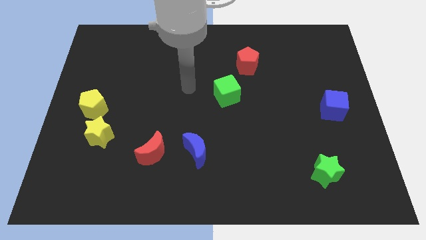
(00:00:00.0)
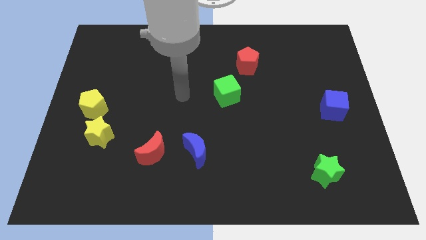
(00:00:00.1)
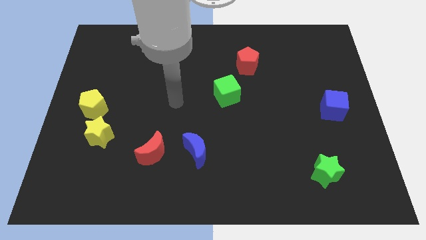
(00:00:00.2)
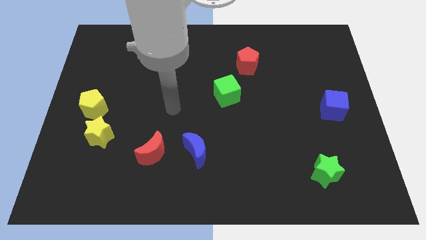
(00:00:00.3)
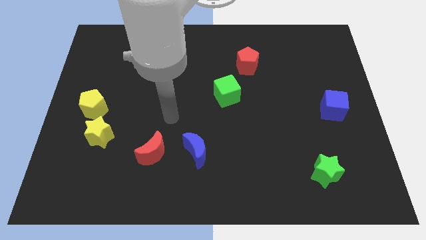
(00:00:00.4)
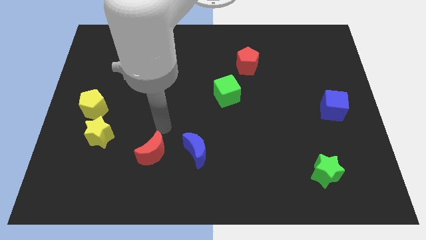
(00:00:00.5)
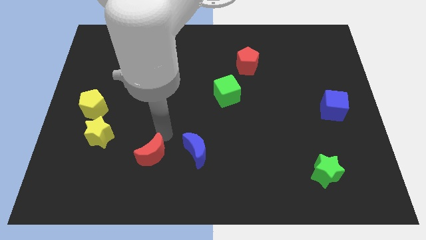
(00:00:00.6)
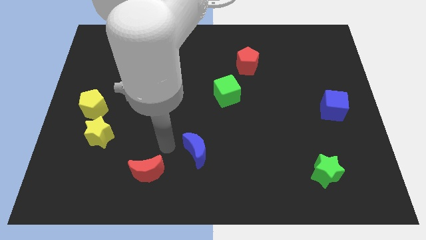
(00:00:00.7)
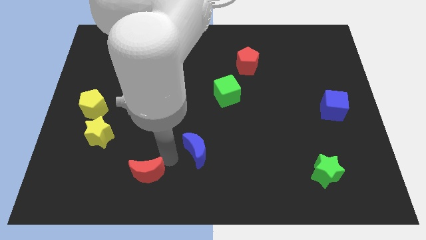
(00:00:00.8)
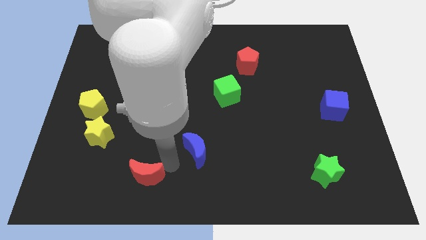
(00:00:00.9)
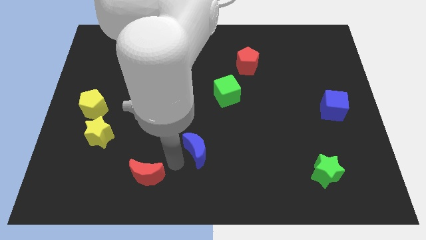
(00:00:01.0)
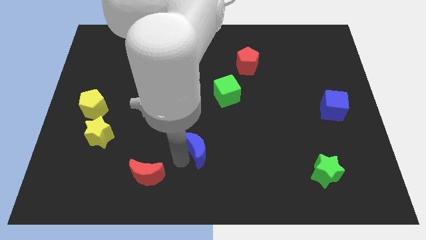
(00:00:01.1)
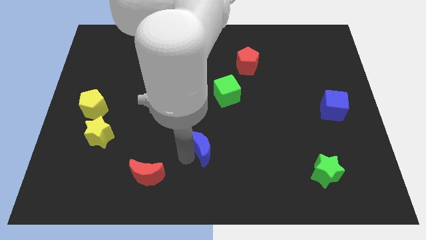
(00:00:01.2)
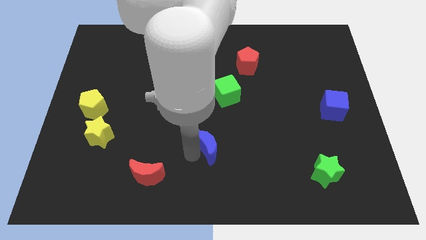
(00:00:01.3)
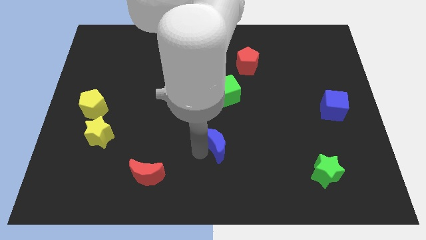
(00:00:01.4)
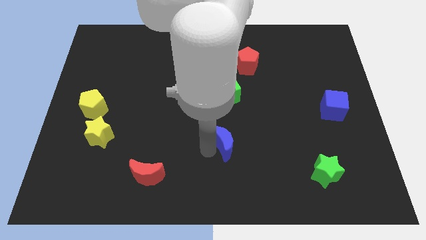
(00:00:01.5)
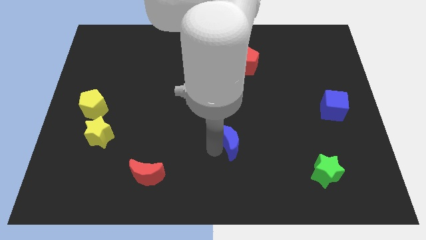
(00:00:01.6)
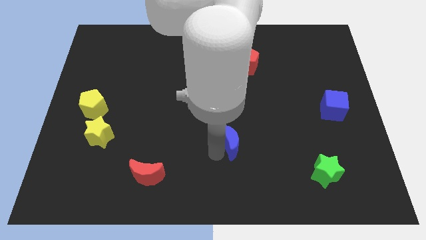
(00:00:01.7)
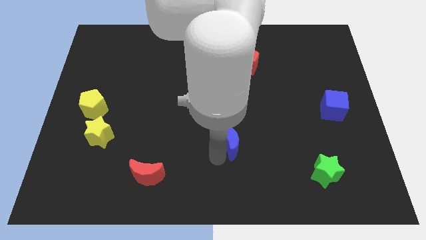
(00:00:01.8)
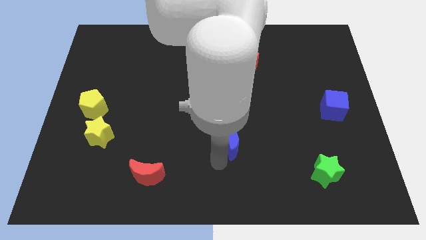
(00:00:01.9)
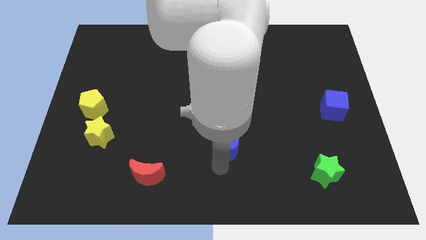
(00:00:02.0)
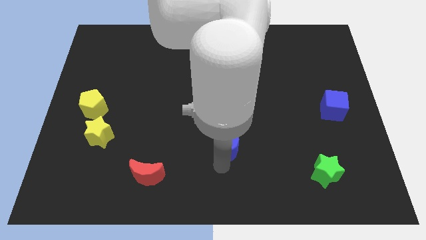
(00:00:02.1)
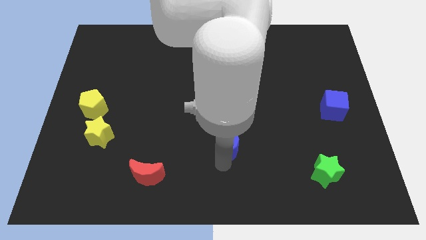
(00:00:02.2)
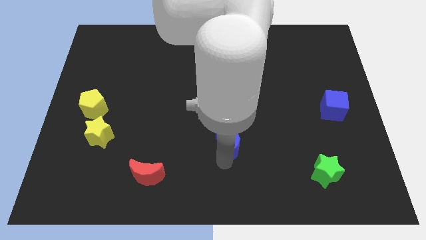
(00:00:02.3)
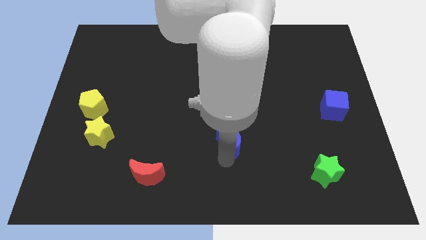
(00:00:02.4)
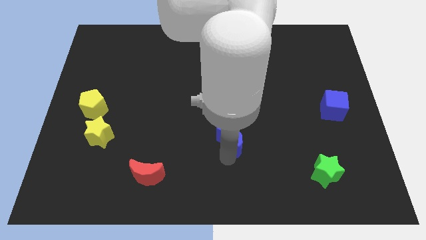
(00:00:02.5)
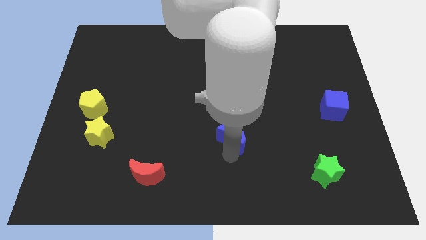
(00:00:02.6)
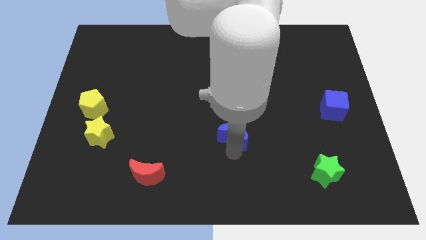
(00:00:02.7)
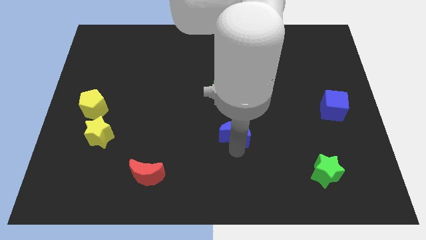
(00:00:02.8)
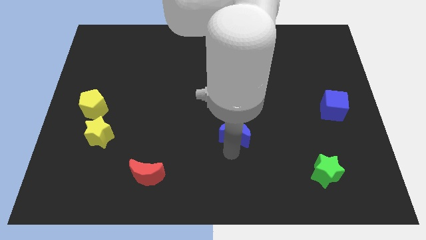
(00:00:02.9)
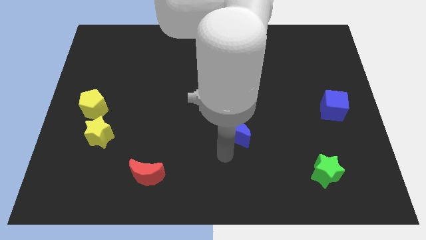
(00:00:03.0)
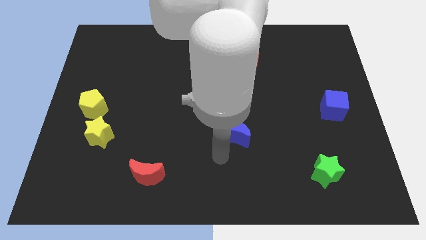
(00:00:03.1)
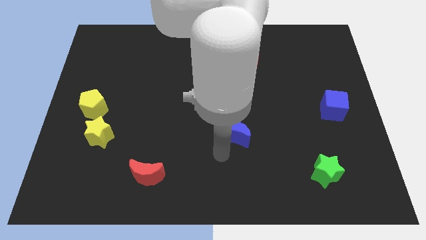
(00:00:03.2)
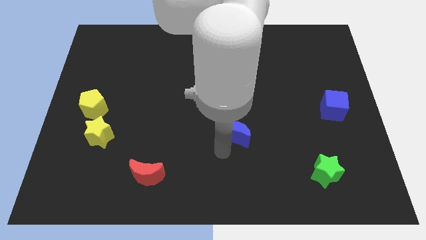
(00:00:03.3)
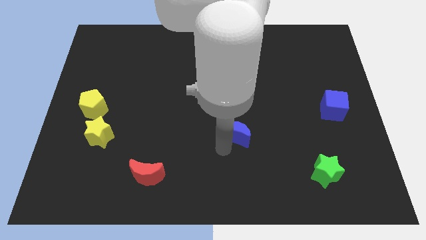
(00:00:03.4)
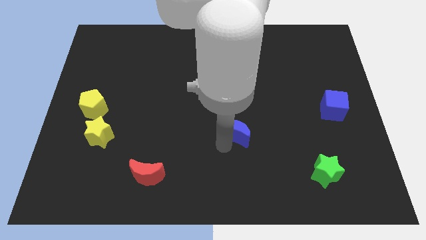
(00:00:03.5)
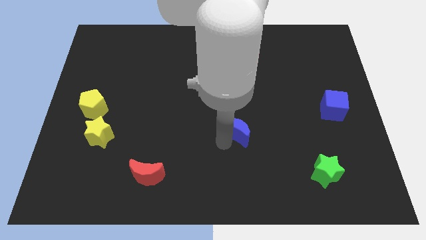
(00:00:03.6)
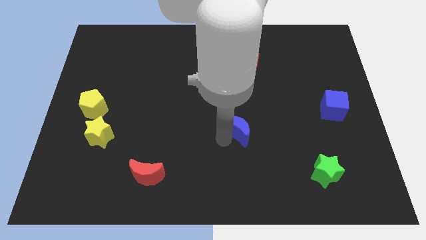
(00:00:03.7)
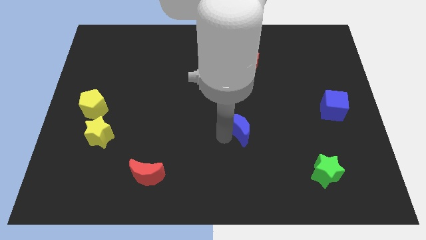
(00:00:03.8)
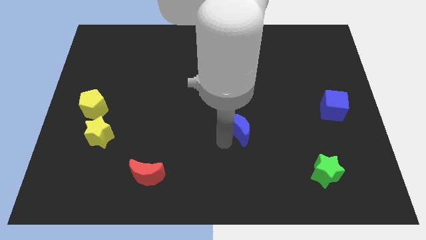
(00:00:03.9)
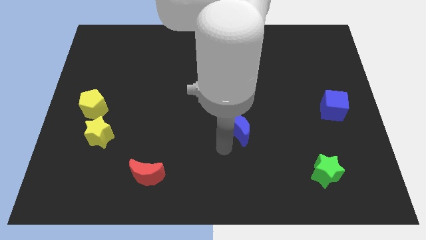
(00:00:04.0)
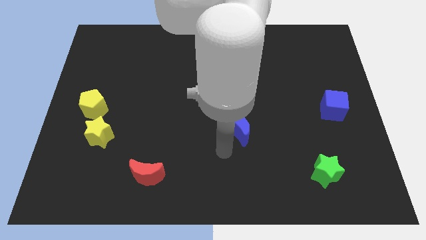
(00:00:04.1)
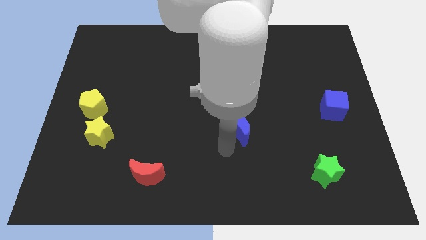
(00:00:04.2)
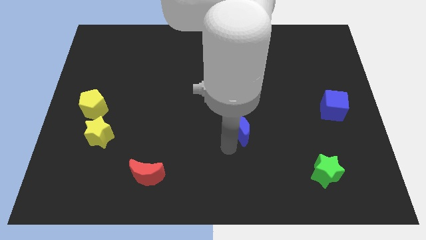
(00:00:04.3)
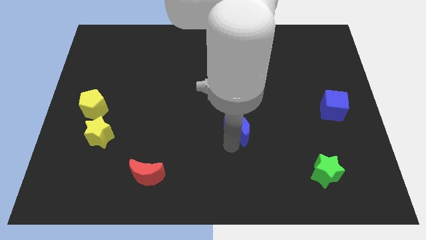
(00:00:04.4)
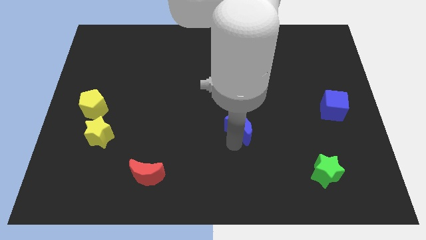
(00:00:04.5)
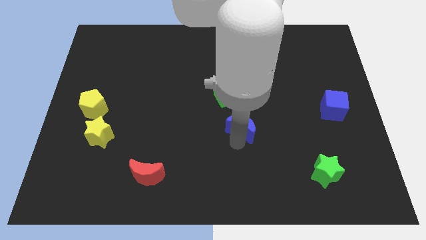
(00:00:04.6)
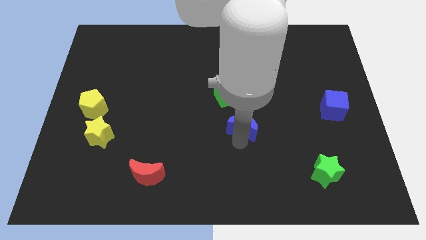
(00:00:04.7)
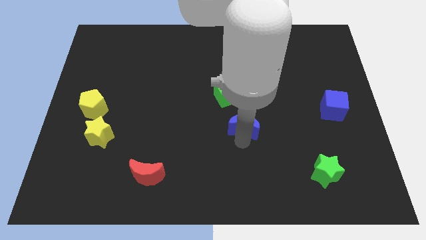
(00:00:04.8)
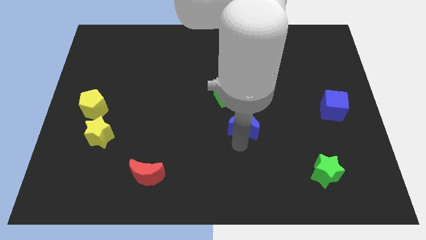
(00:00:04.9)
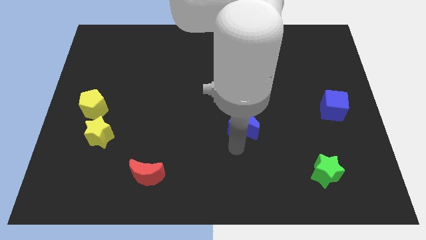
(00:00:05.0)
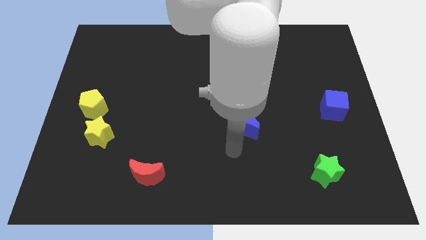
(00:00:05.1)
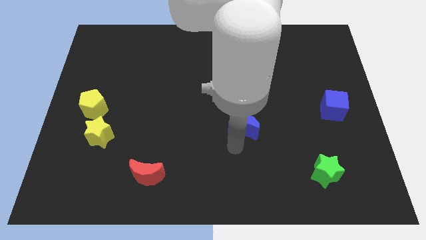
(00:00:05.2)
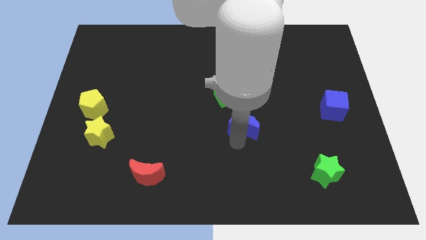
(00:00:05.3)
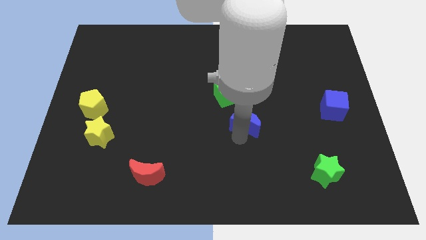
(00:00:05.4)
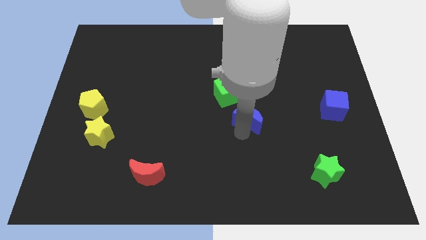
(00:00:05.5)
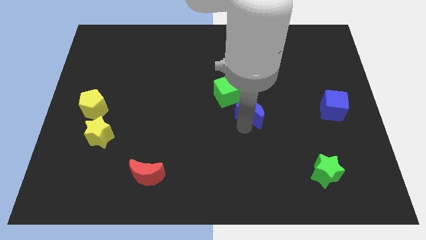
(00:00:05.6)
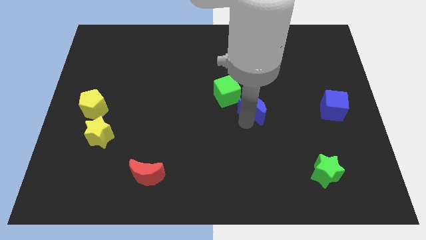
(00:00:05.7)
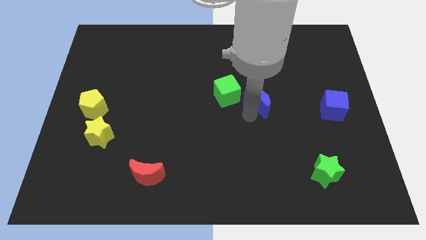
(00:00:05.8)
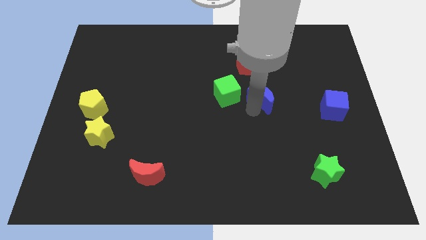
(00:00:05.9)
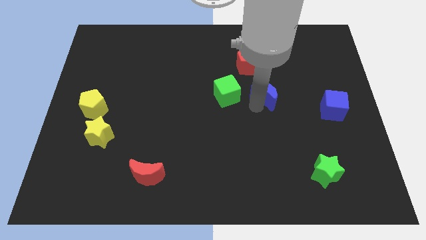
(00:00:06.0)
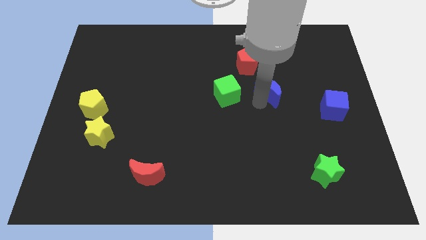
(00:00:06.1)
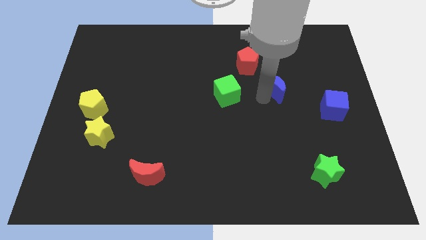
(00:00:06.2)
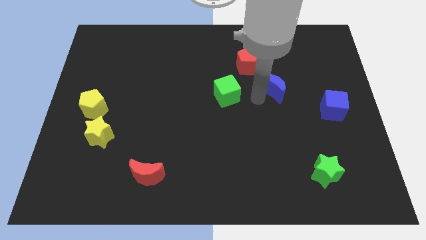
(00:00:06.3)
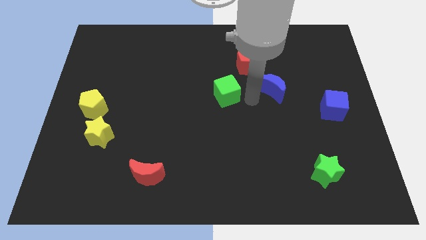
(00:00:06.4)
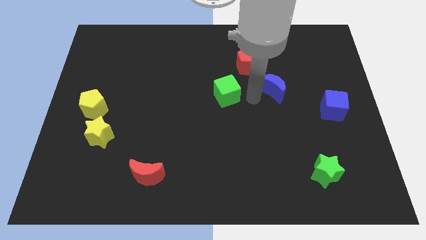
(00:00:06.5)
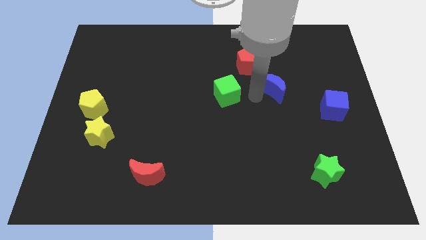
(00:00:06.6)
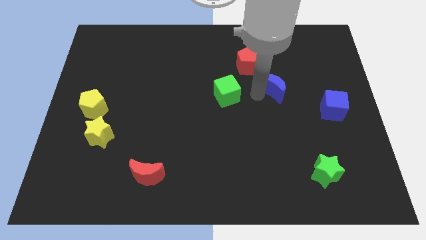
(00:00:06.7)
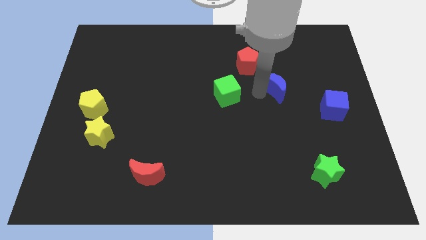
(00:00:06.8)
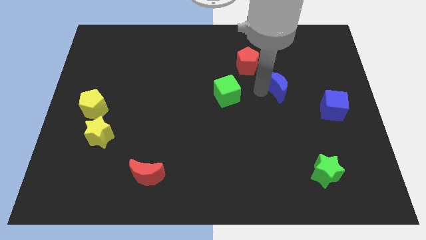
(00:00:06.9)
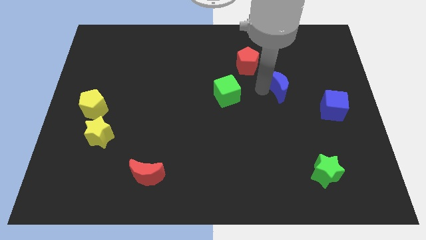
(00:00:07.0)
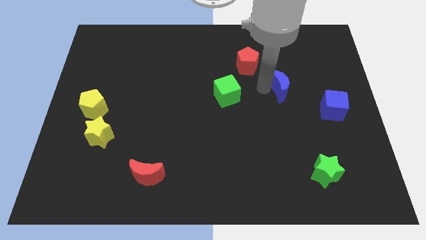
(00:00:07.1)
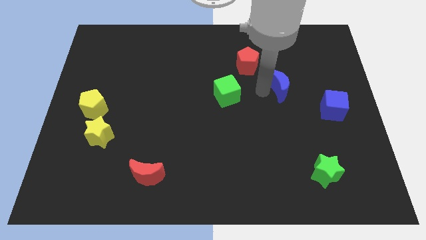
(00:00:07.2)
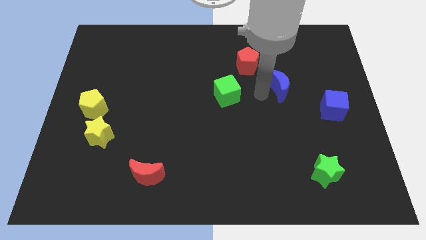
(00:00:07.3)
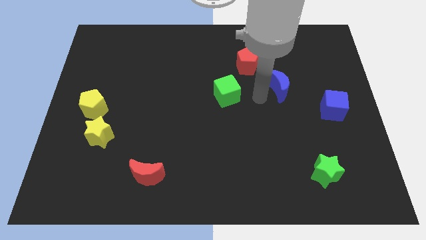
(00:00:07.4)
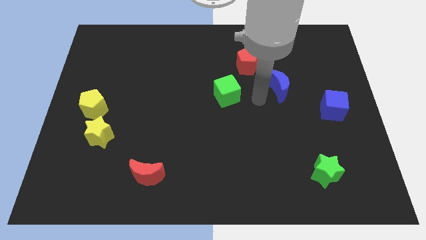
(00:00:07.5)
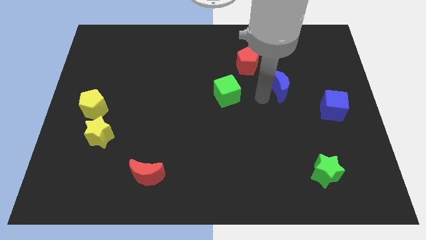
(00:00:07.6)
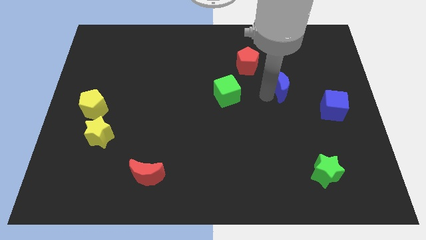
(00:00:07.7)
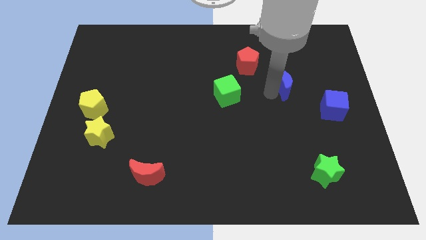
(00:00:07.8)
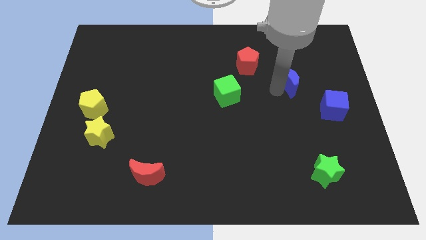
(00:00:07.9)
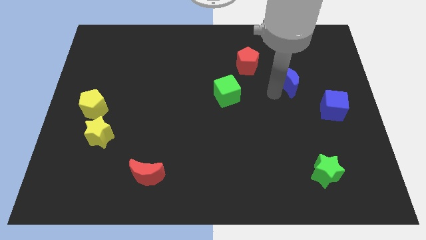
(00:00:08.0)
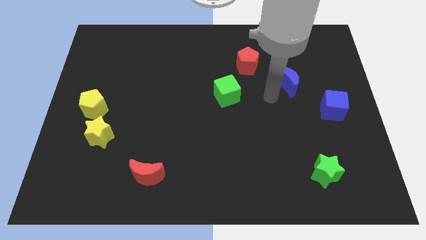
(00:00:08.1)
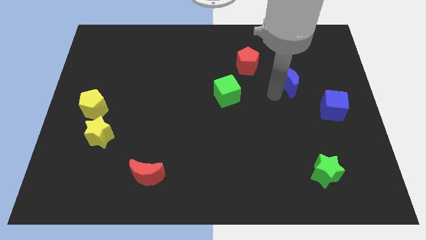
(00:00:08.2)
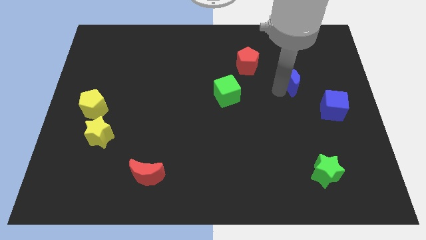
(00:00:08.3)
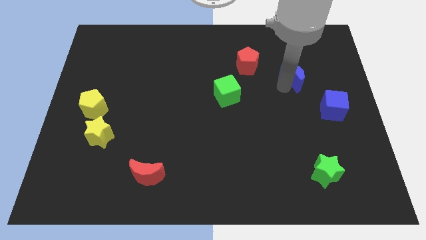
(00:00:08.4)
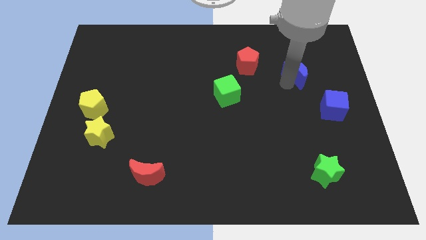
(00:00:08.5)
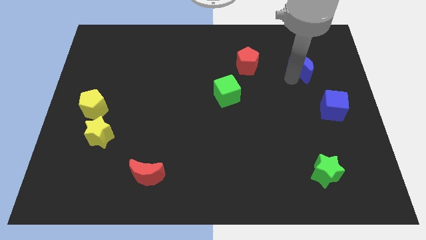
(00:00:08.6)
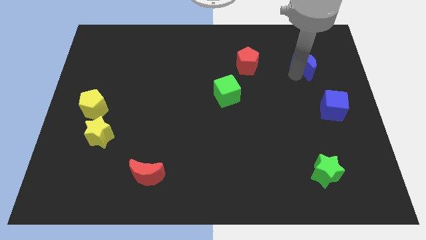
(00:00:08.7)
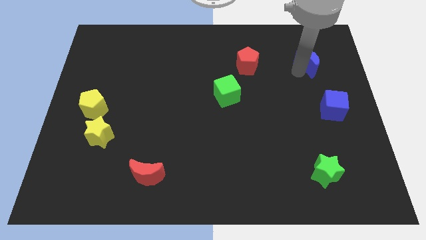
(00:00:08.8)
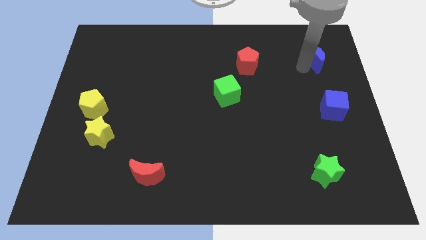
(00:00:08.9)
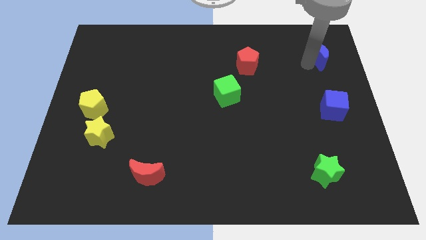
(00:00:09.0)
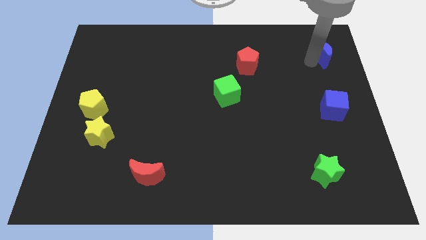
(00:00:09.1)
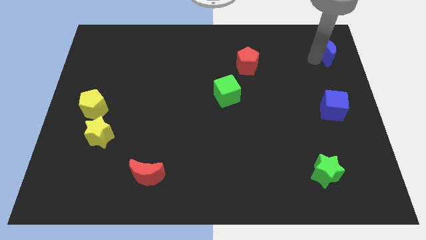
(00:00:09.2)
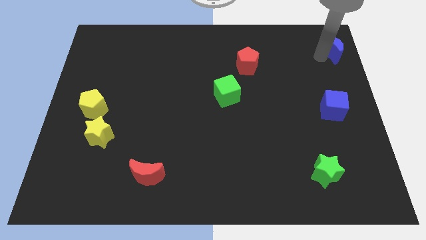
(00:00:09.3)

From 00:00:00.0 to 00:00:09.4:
move the blue moon to the top right corner
